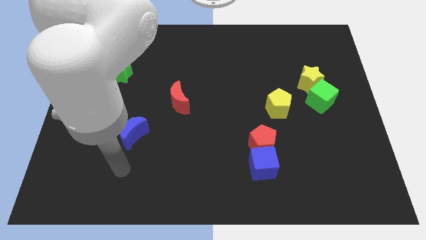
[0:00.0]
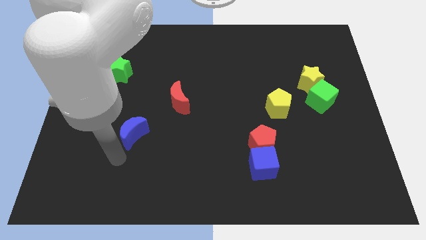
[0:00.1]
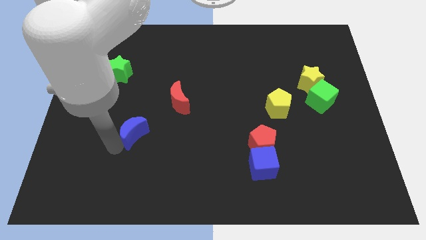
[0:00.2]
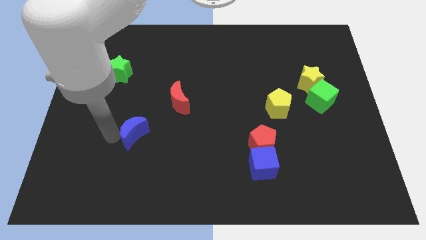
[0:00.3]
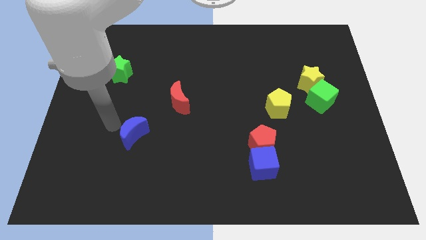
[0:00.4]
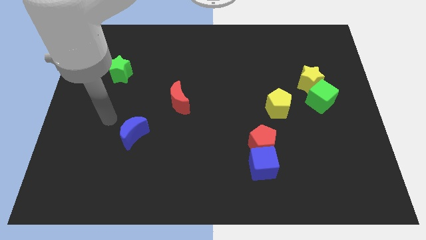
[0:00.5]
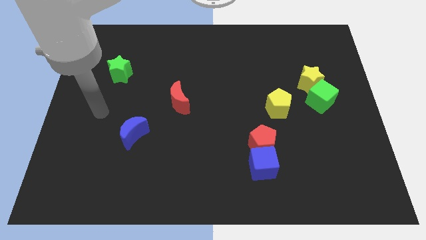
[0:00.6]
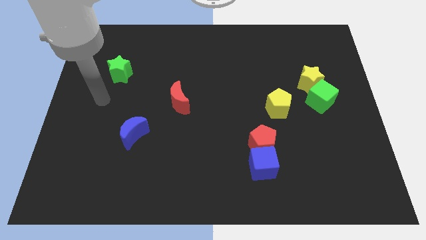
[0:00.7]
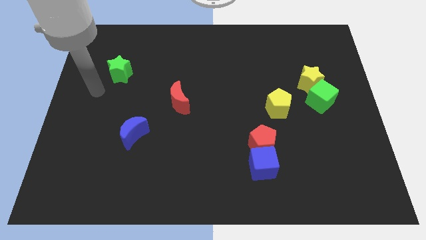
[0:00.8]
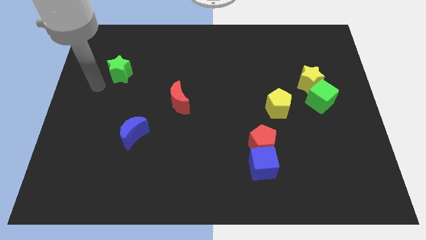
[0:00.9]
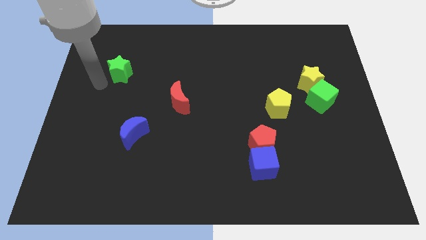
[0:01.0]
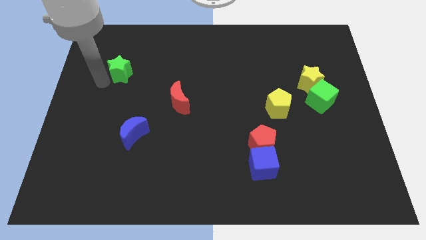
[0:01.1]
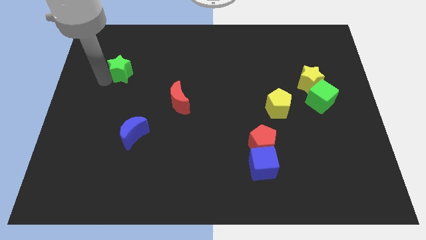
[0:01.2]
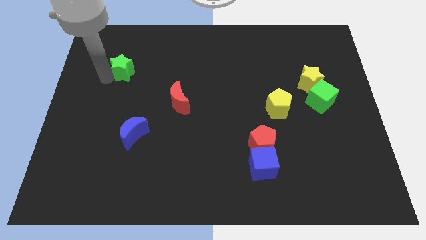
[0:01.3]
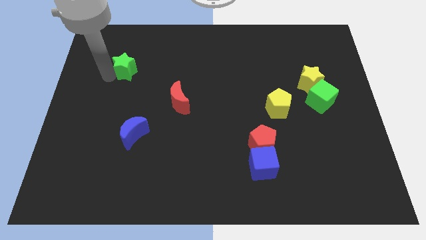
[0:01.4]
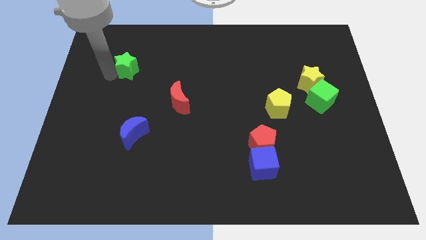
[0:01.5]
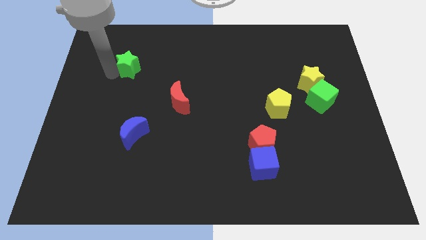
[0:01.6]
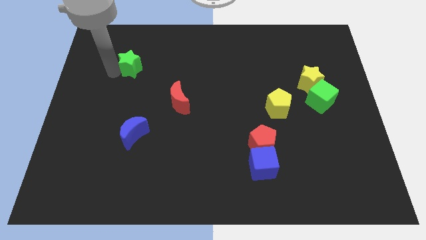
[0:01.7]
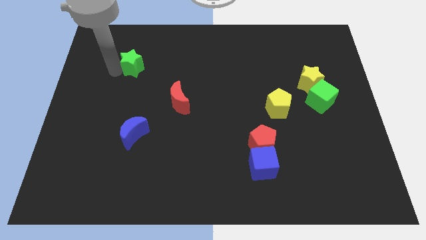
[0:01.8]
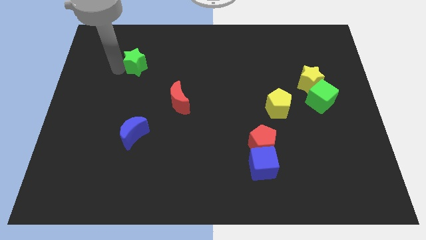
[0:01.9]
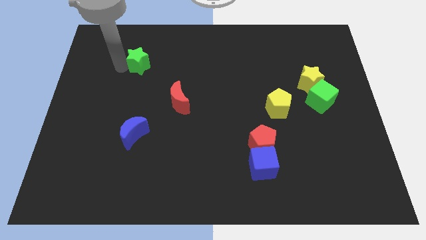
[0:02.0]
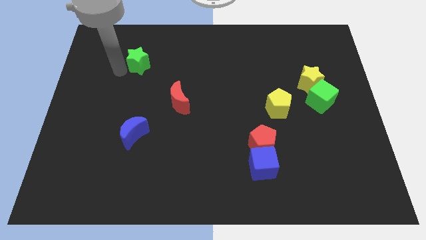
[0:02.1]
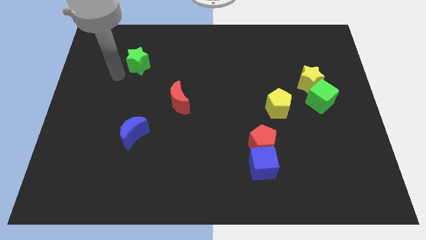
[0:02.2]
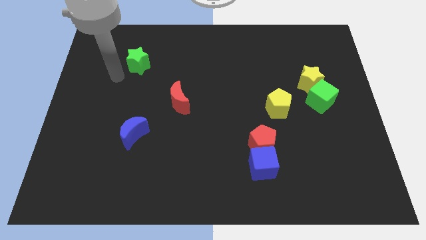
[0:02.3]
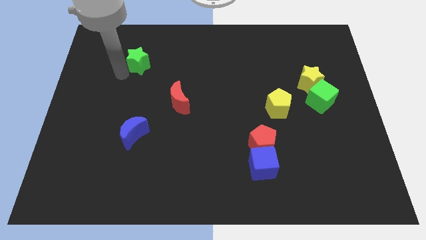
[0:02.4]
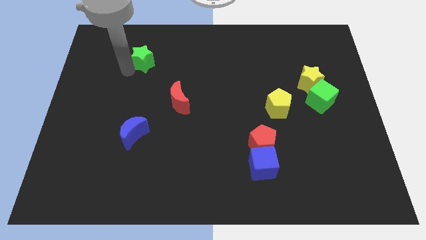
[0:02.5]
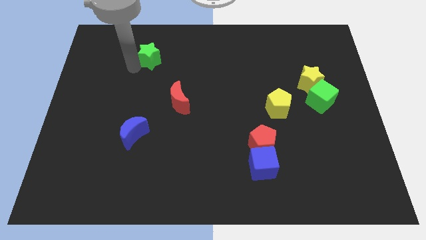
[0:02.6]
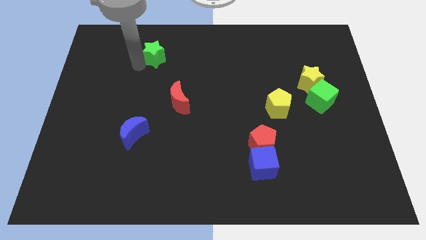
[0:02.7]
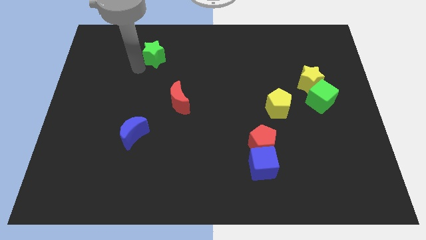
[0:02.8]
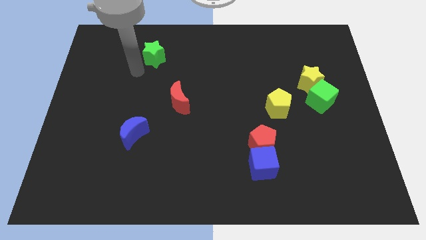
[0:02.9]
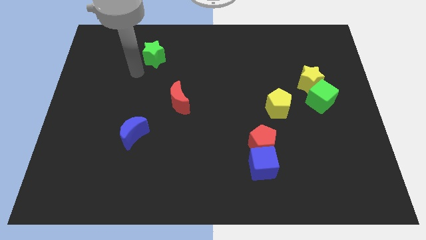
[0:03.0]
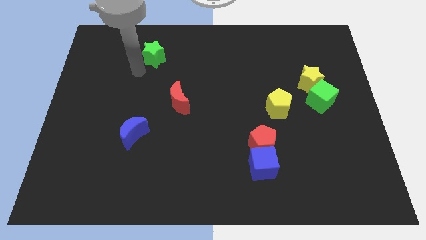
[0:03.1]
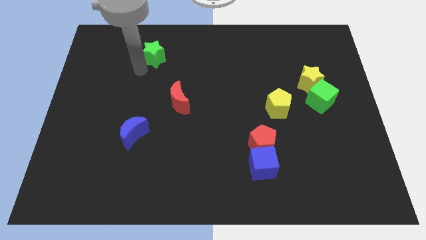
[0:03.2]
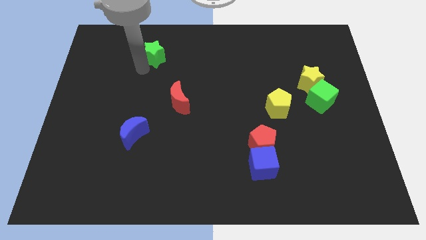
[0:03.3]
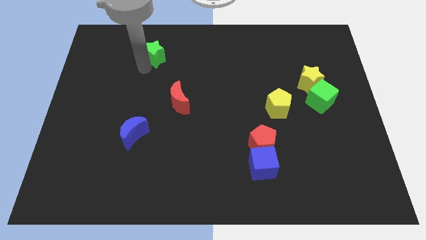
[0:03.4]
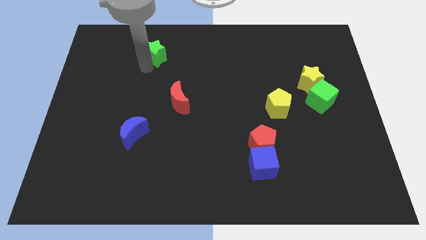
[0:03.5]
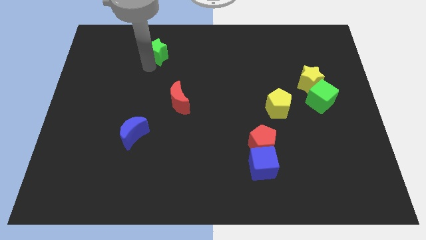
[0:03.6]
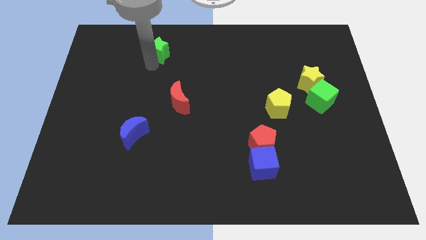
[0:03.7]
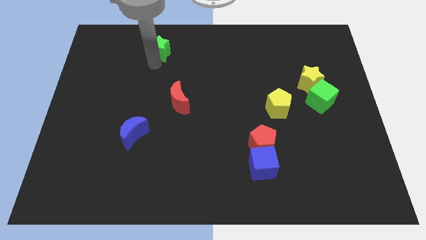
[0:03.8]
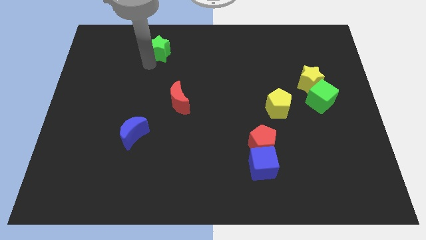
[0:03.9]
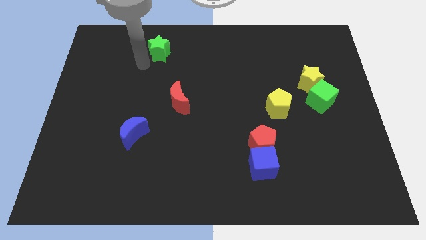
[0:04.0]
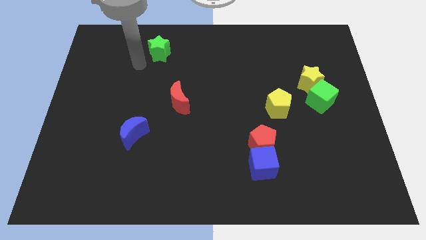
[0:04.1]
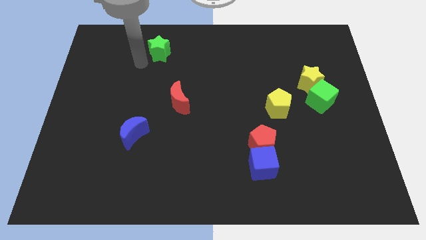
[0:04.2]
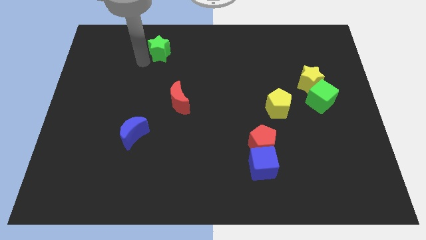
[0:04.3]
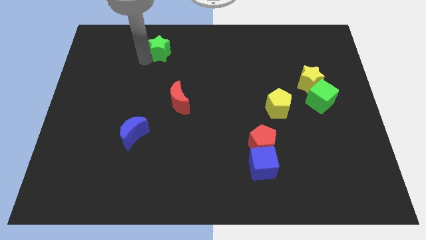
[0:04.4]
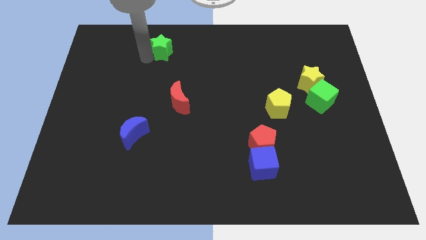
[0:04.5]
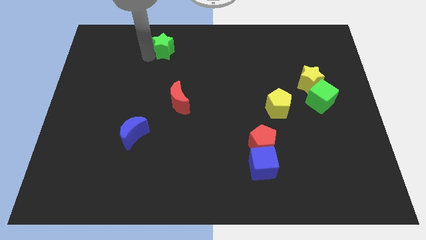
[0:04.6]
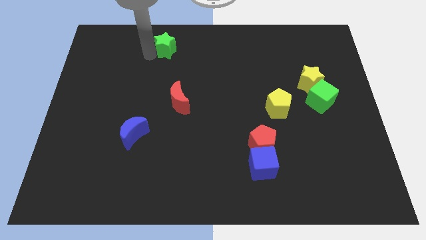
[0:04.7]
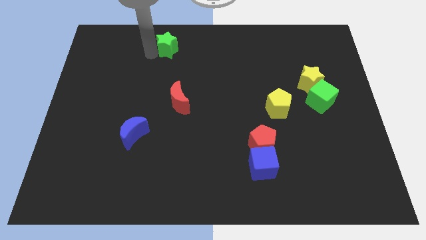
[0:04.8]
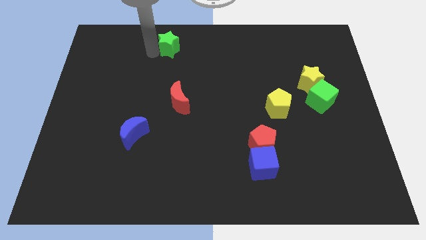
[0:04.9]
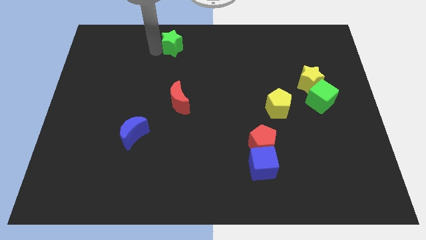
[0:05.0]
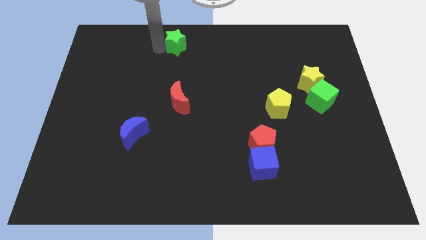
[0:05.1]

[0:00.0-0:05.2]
push the green star to the top side

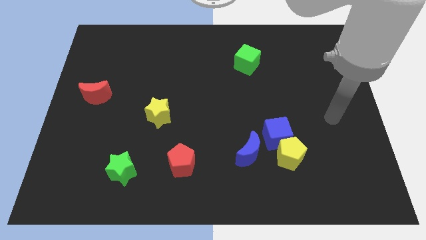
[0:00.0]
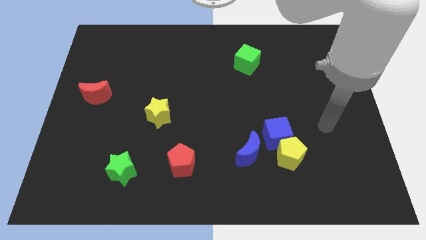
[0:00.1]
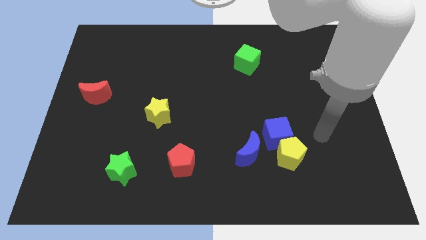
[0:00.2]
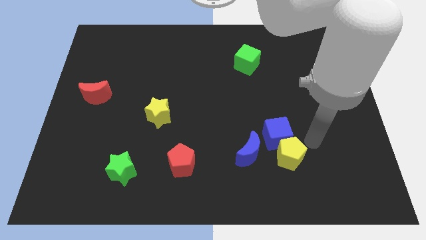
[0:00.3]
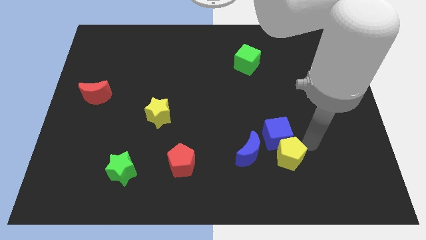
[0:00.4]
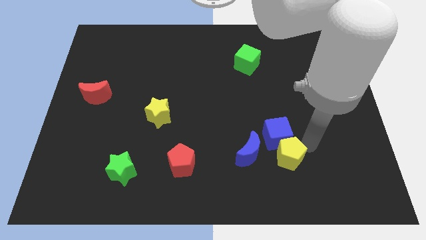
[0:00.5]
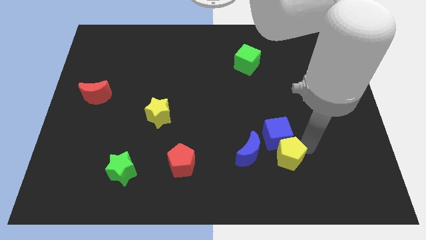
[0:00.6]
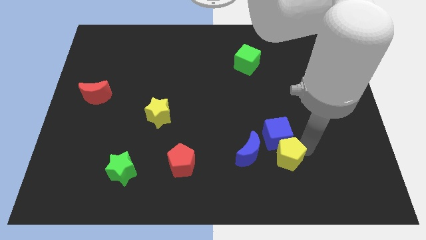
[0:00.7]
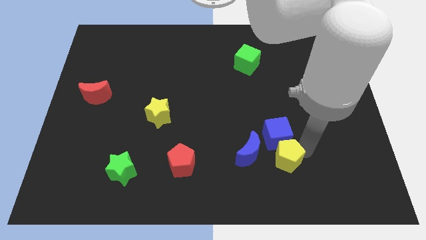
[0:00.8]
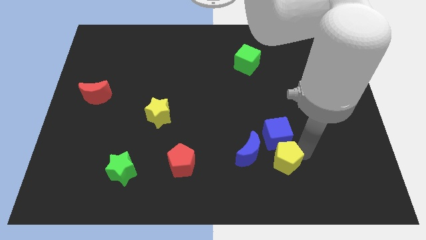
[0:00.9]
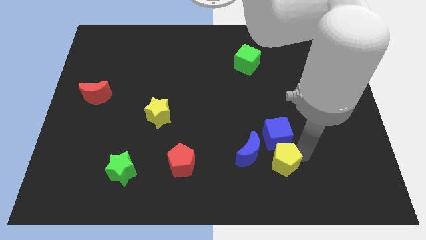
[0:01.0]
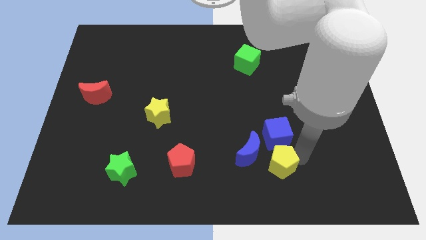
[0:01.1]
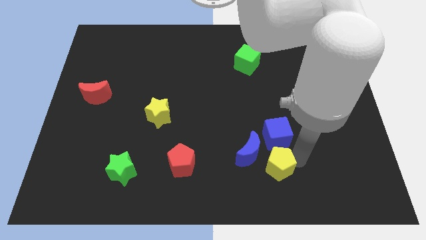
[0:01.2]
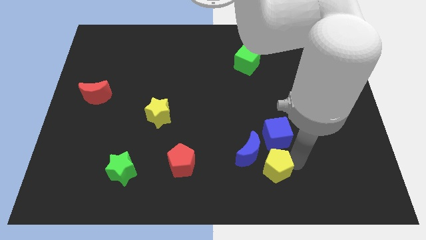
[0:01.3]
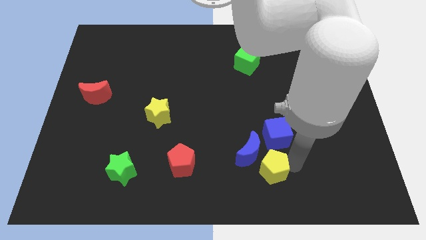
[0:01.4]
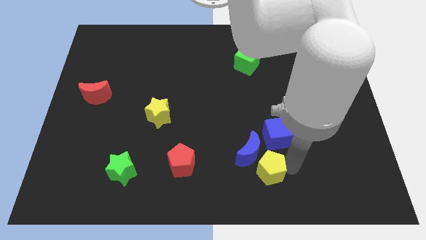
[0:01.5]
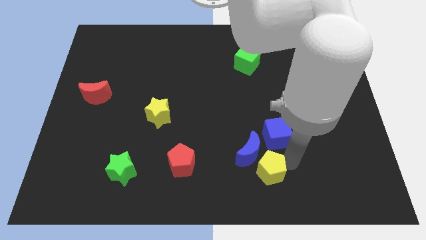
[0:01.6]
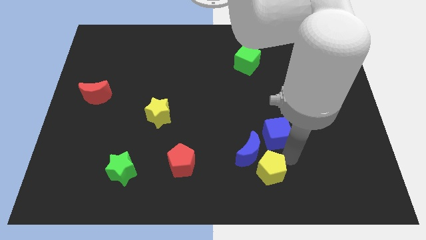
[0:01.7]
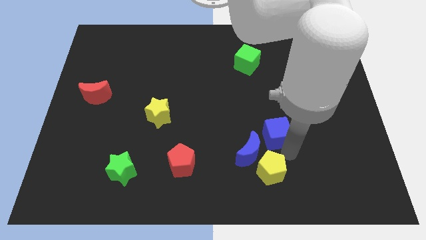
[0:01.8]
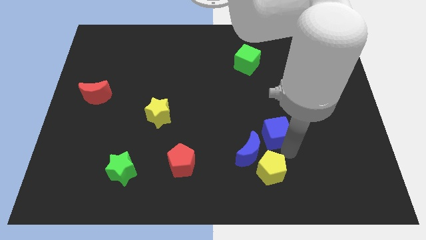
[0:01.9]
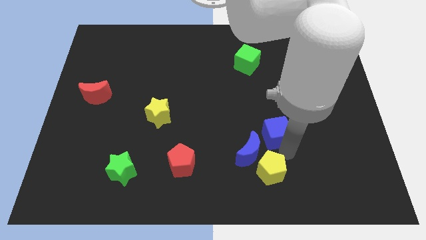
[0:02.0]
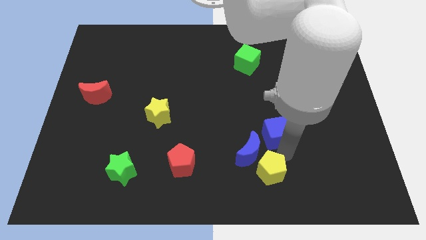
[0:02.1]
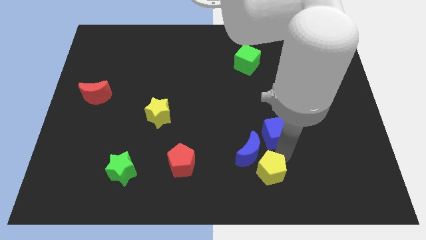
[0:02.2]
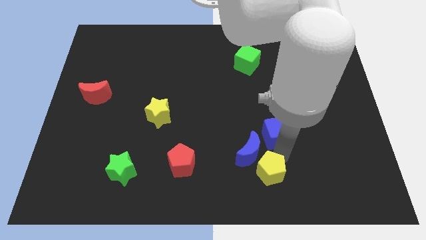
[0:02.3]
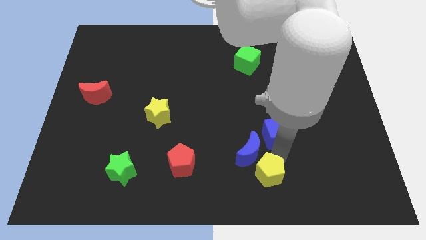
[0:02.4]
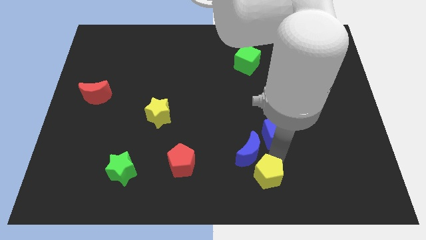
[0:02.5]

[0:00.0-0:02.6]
move the yellow pentagon to the bottom

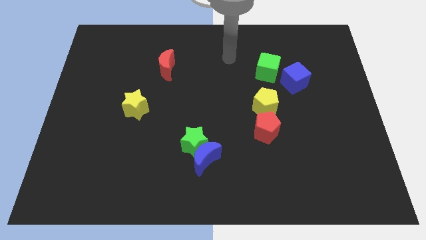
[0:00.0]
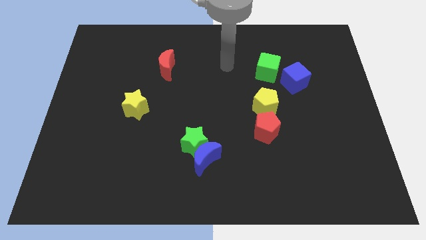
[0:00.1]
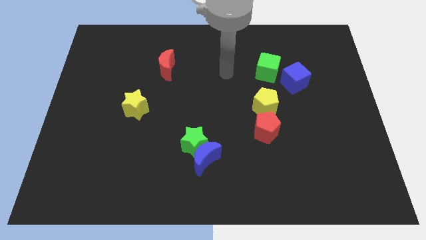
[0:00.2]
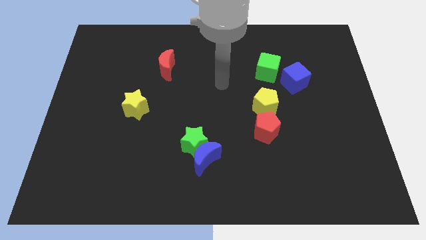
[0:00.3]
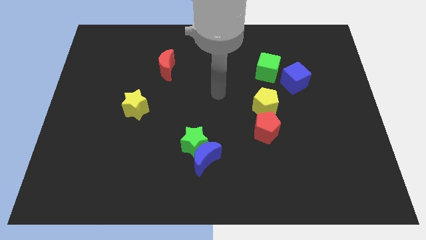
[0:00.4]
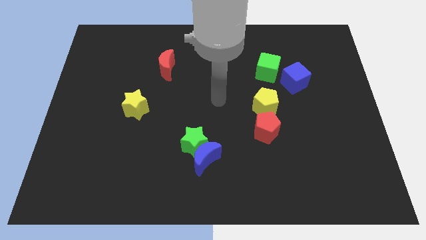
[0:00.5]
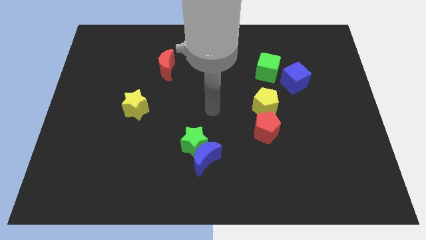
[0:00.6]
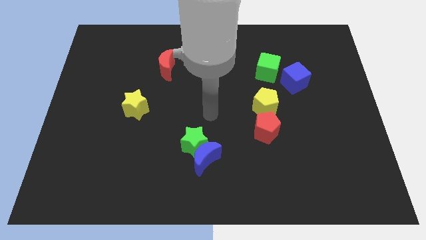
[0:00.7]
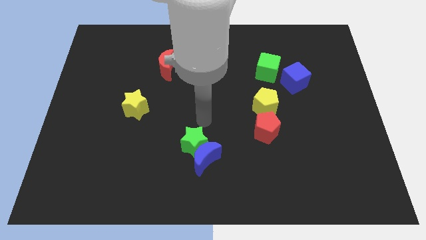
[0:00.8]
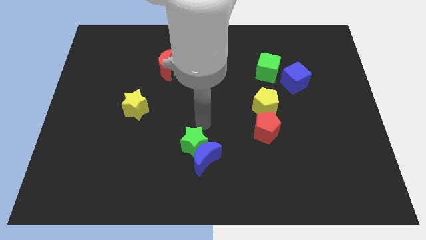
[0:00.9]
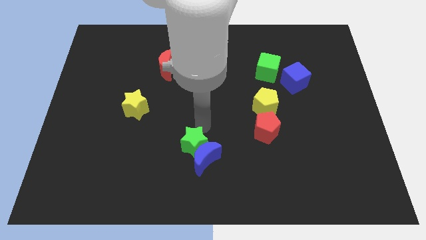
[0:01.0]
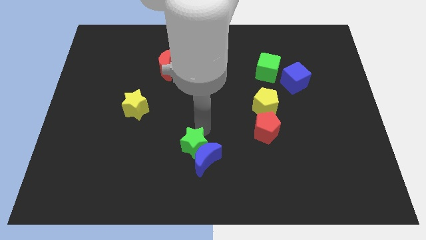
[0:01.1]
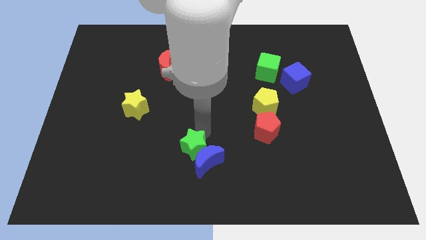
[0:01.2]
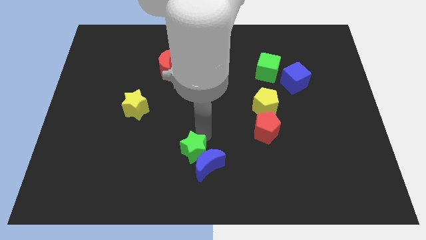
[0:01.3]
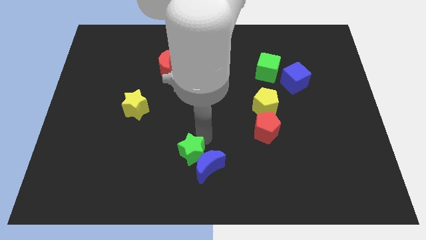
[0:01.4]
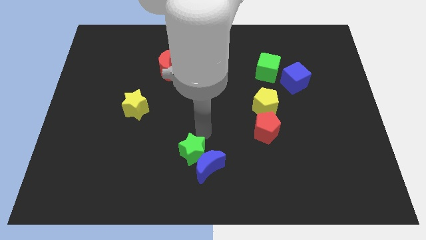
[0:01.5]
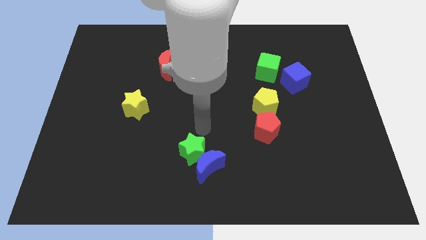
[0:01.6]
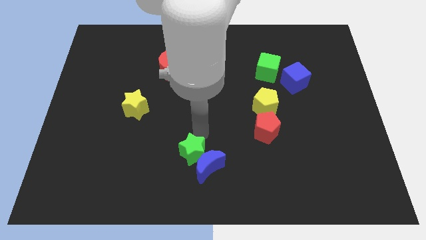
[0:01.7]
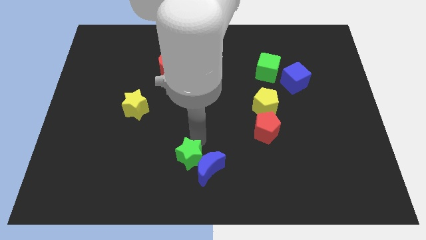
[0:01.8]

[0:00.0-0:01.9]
move the green star to the bottom side
